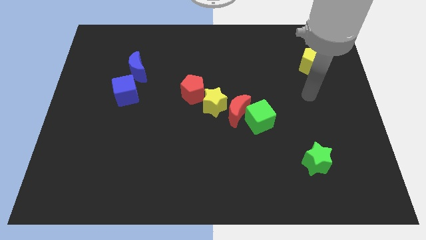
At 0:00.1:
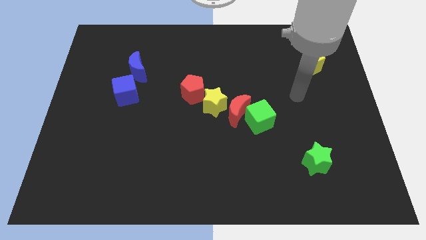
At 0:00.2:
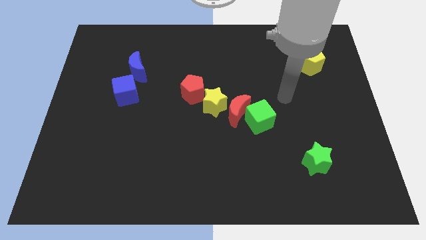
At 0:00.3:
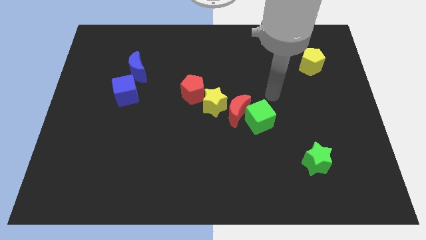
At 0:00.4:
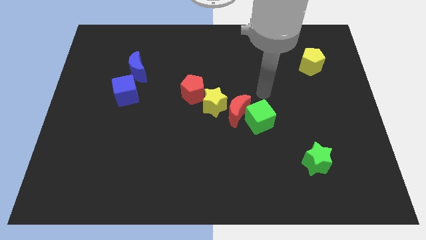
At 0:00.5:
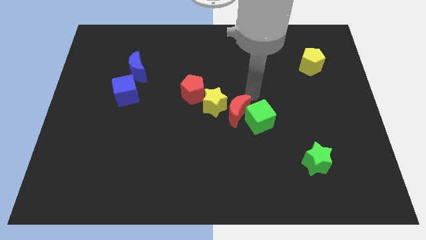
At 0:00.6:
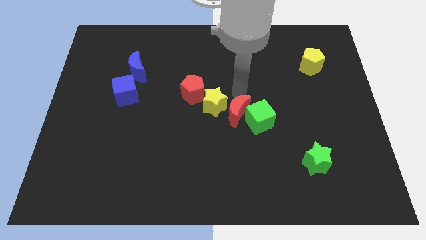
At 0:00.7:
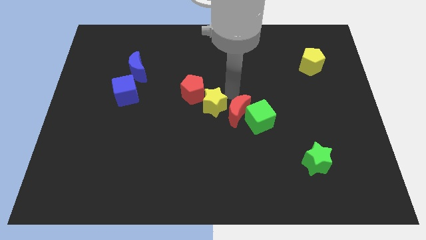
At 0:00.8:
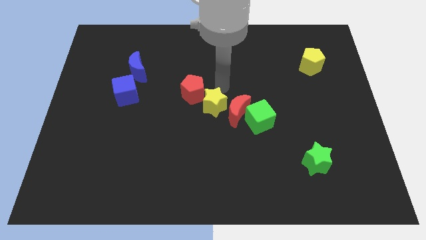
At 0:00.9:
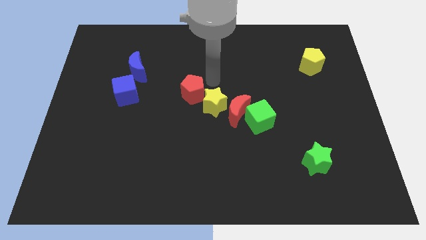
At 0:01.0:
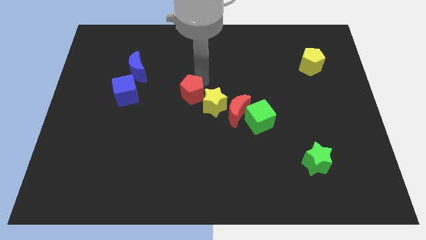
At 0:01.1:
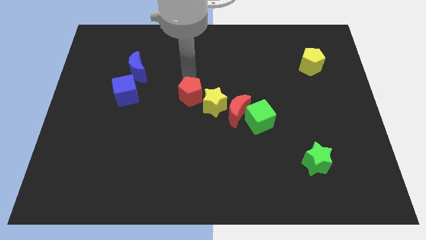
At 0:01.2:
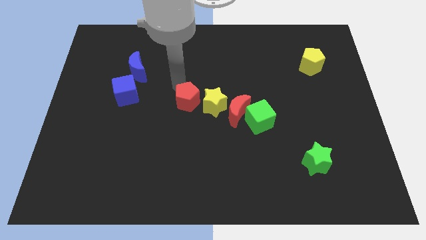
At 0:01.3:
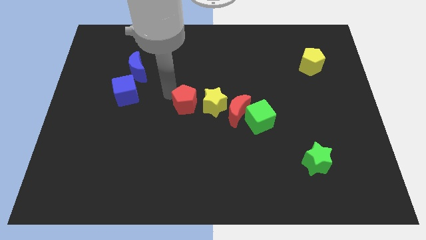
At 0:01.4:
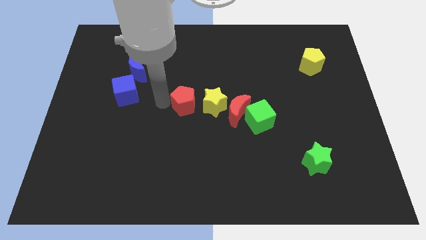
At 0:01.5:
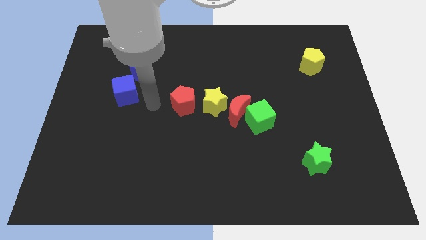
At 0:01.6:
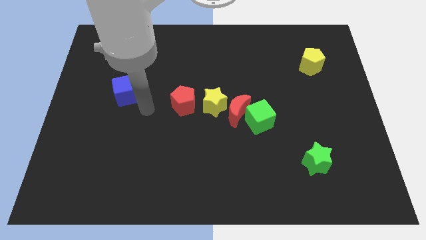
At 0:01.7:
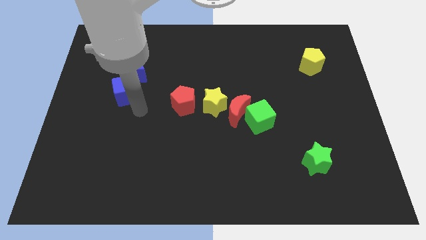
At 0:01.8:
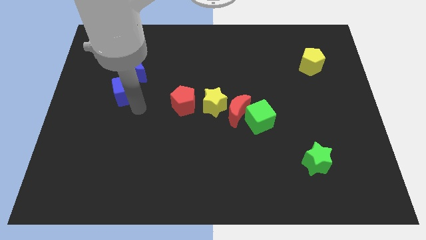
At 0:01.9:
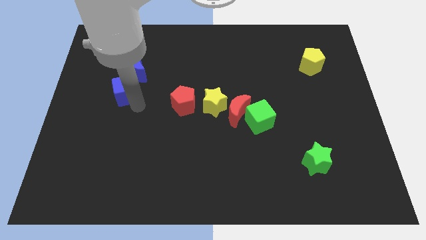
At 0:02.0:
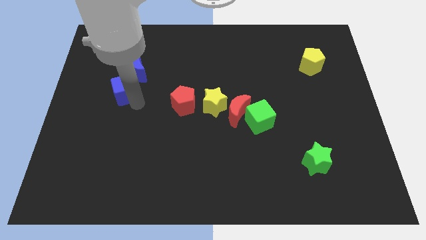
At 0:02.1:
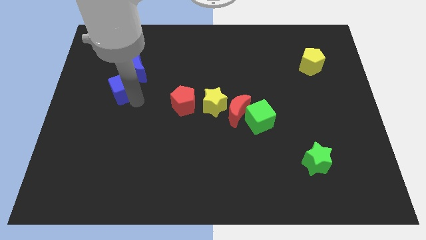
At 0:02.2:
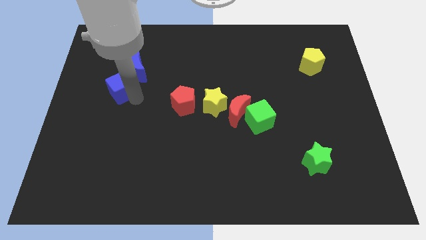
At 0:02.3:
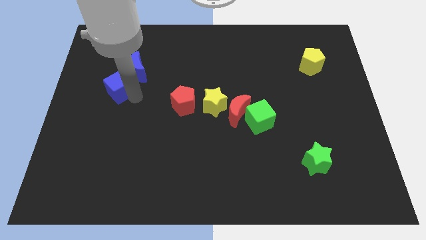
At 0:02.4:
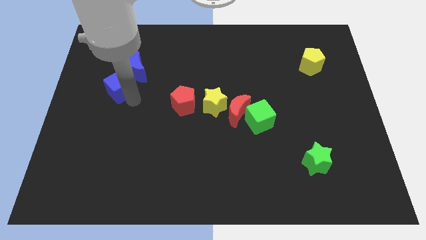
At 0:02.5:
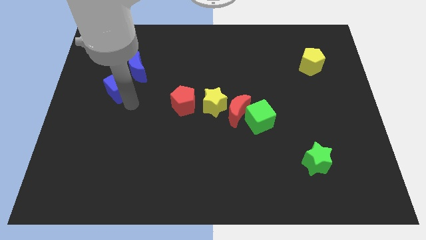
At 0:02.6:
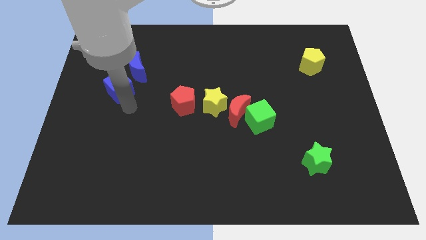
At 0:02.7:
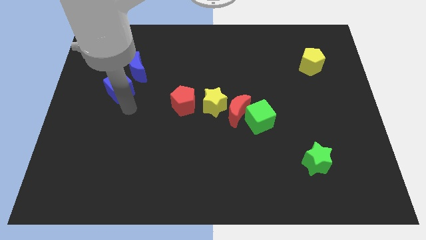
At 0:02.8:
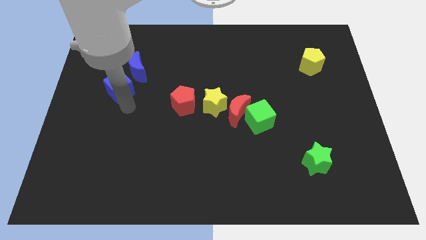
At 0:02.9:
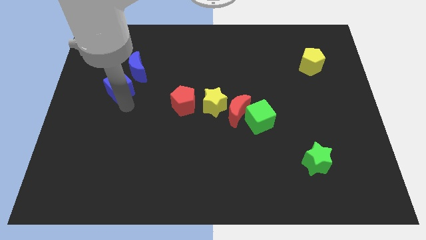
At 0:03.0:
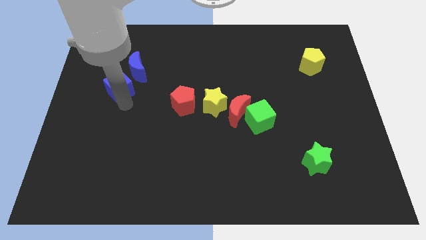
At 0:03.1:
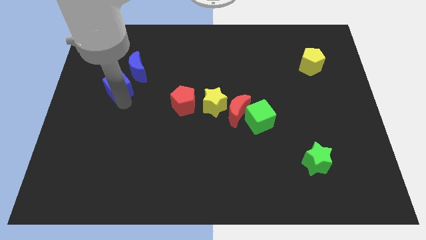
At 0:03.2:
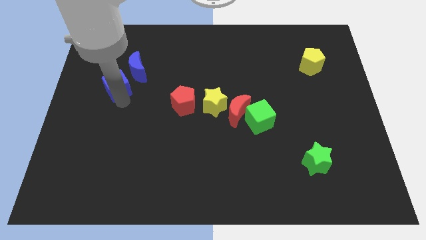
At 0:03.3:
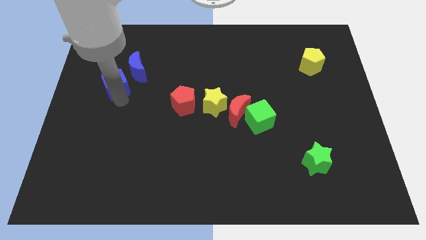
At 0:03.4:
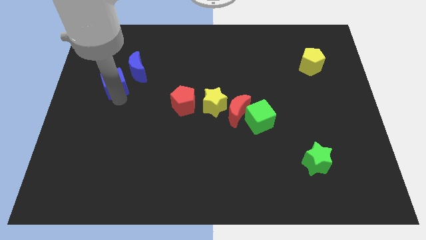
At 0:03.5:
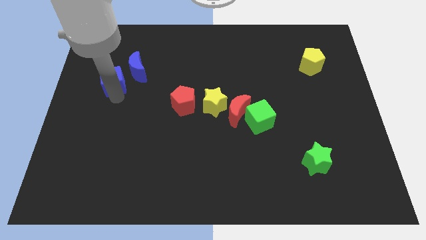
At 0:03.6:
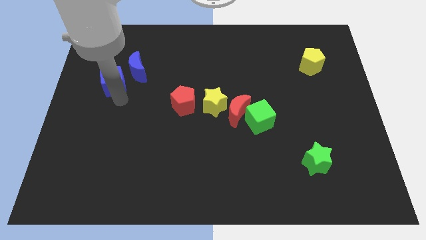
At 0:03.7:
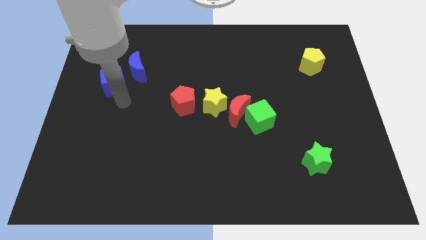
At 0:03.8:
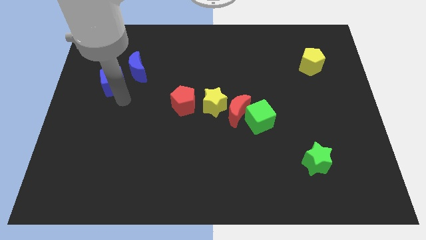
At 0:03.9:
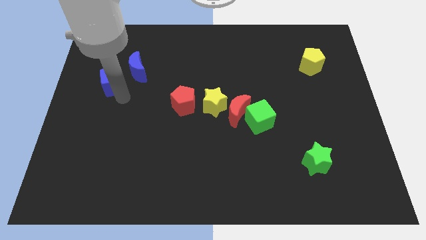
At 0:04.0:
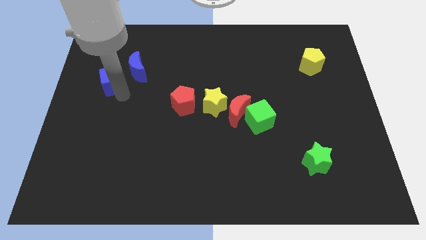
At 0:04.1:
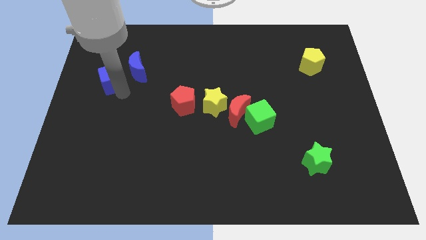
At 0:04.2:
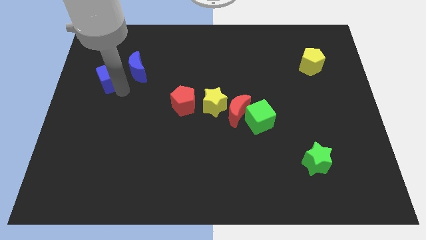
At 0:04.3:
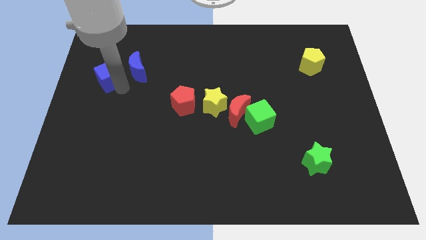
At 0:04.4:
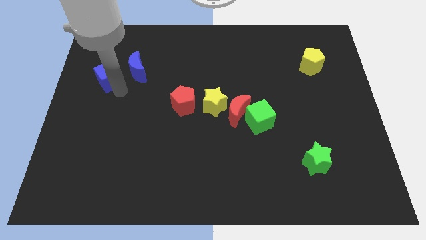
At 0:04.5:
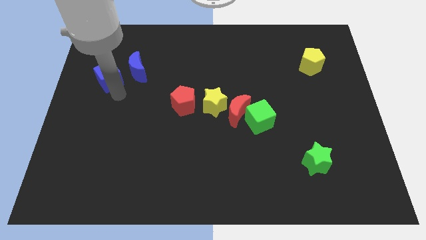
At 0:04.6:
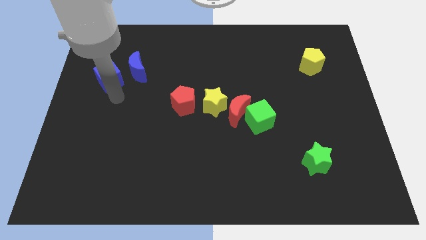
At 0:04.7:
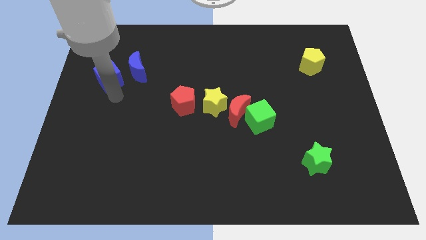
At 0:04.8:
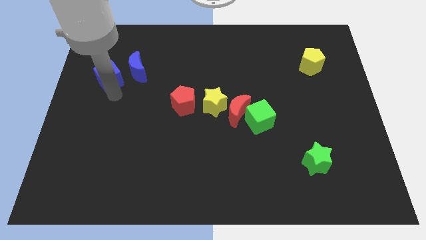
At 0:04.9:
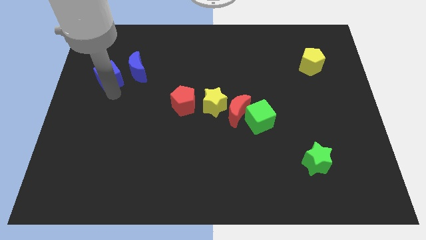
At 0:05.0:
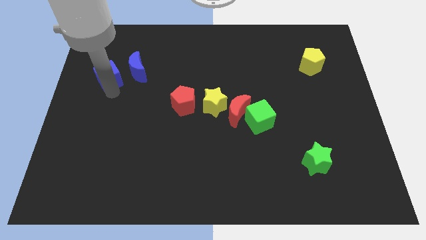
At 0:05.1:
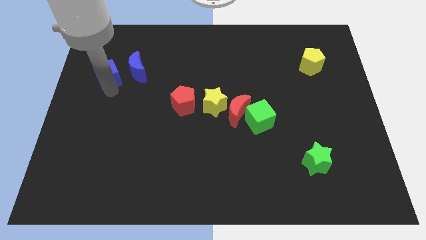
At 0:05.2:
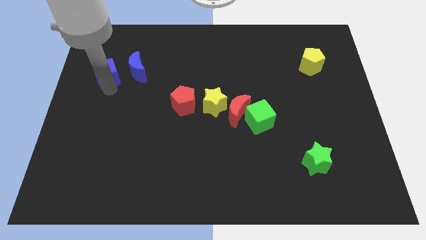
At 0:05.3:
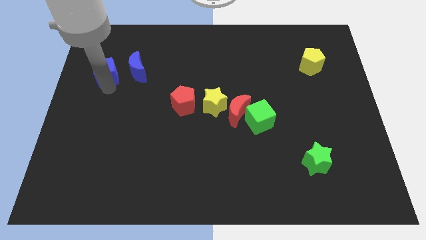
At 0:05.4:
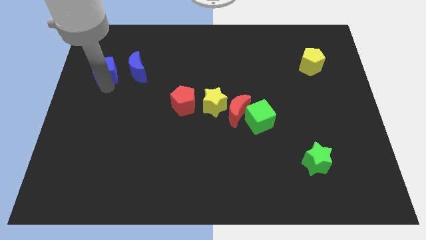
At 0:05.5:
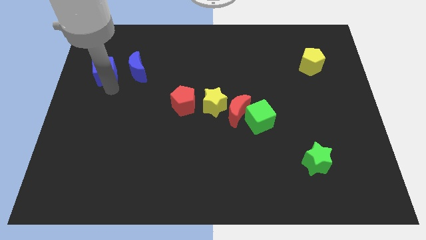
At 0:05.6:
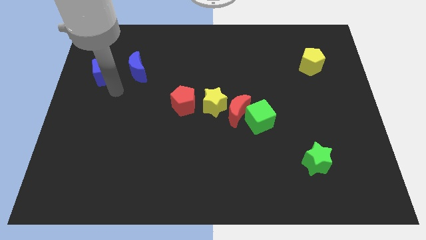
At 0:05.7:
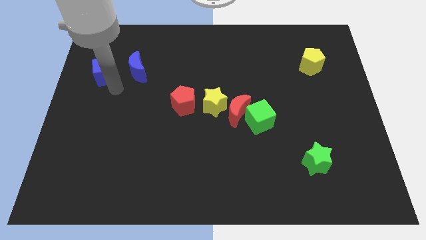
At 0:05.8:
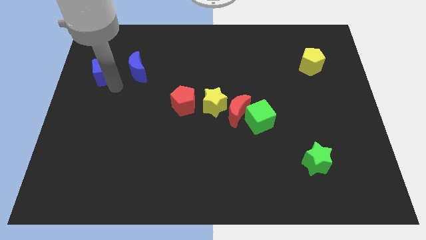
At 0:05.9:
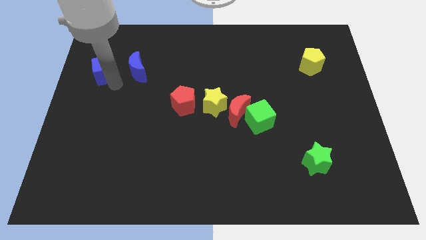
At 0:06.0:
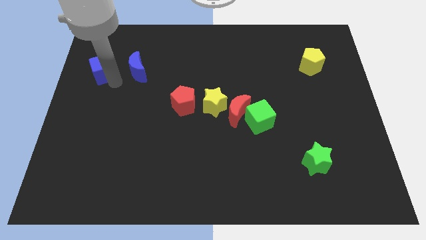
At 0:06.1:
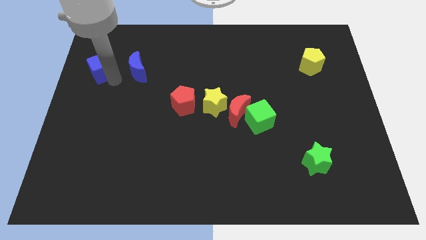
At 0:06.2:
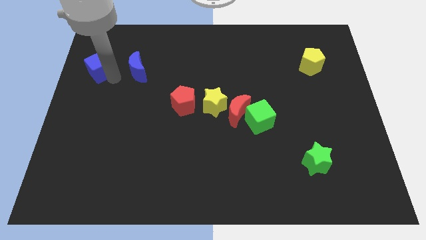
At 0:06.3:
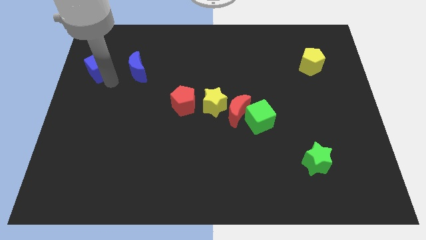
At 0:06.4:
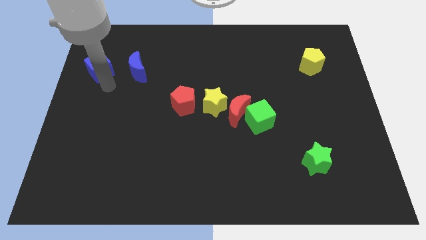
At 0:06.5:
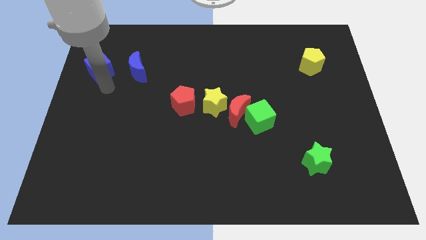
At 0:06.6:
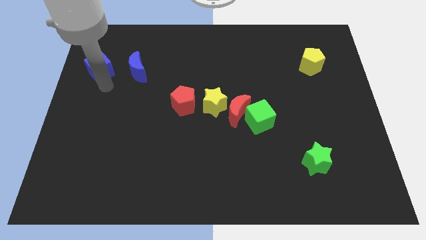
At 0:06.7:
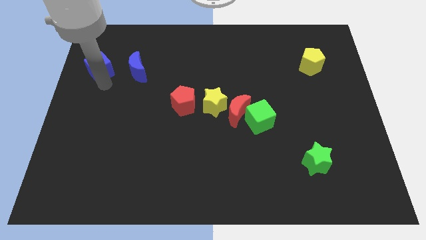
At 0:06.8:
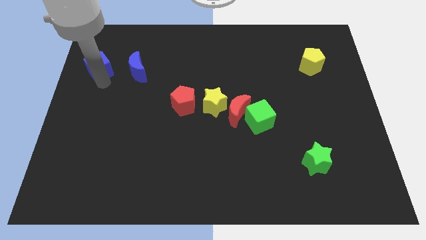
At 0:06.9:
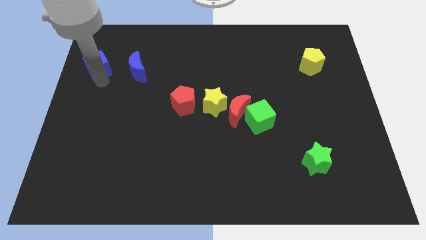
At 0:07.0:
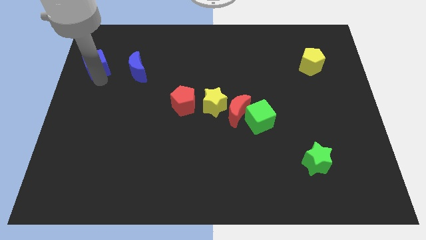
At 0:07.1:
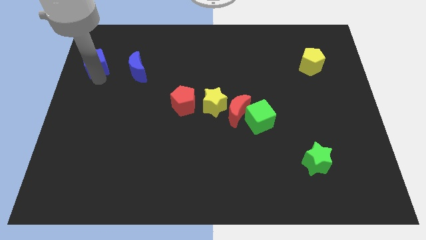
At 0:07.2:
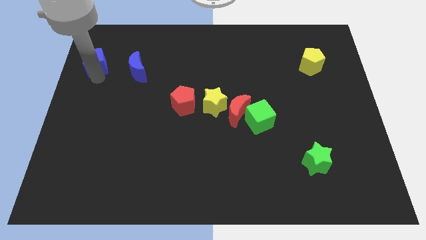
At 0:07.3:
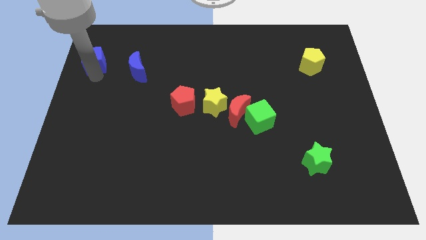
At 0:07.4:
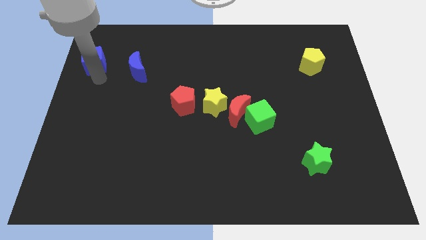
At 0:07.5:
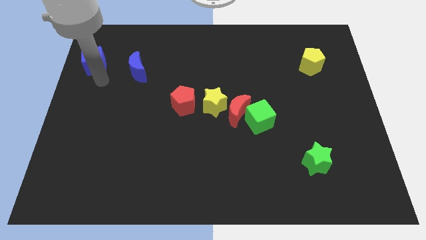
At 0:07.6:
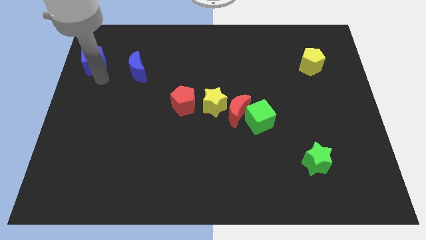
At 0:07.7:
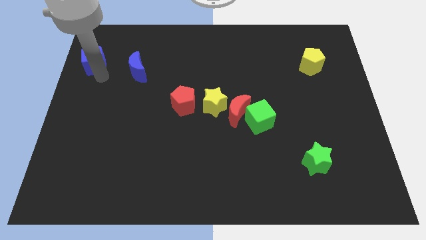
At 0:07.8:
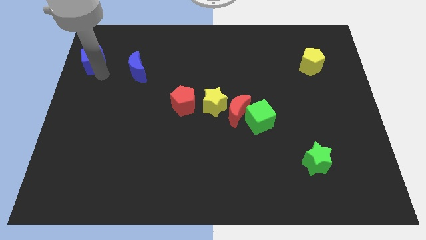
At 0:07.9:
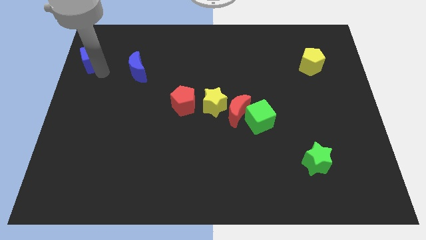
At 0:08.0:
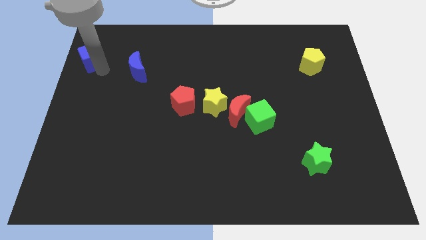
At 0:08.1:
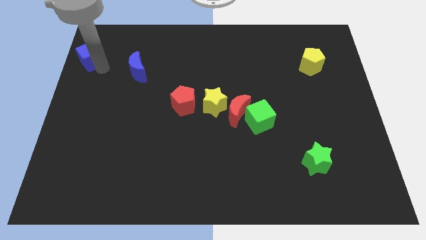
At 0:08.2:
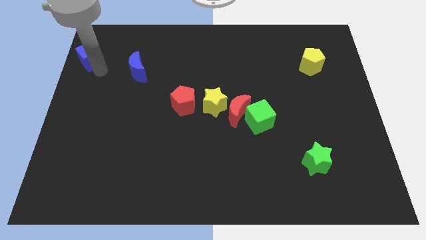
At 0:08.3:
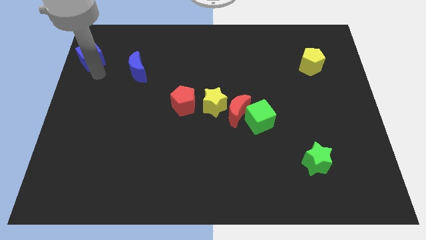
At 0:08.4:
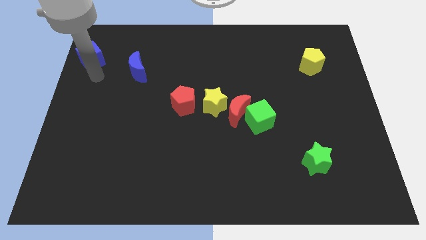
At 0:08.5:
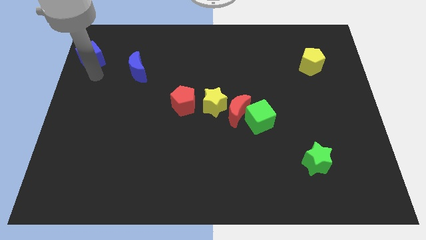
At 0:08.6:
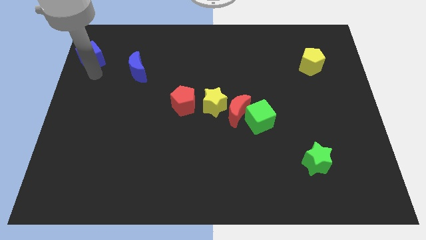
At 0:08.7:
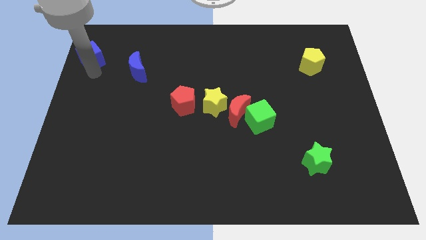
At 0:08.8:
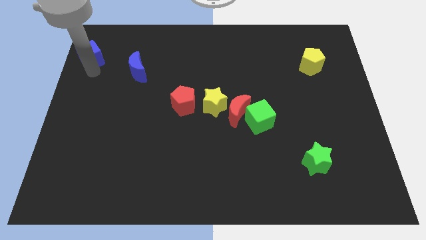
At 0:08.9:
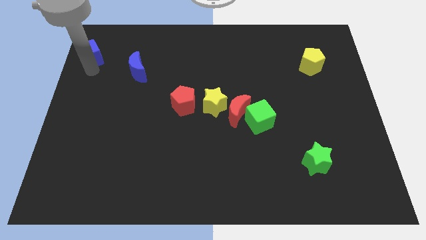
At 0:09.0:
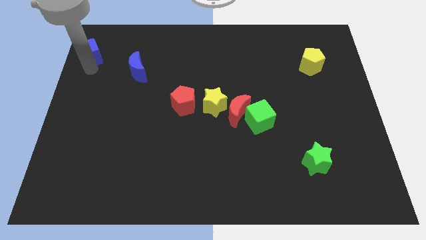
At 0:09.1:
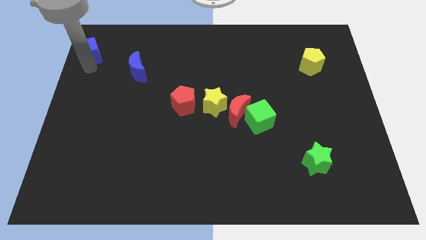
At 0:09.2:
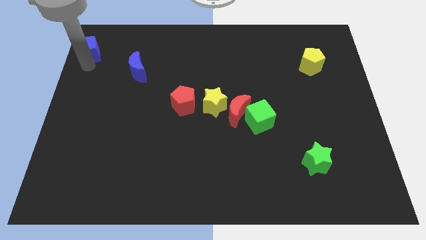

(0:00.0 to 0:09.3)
push the blue cube to the top left corner
